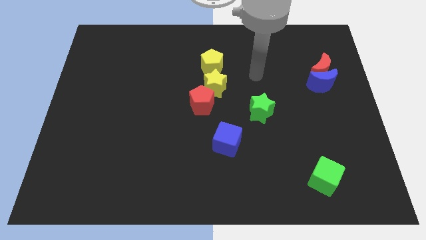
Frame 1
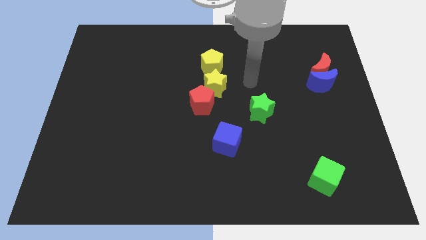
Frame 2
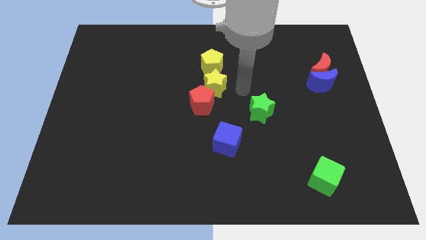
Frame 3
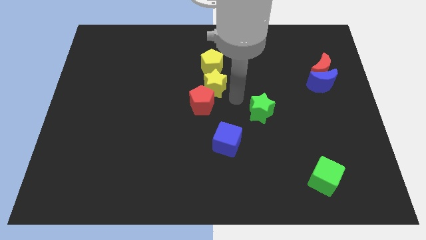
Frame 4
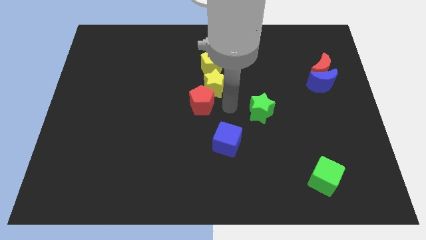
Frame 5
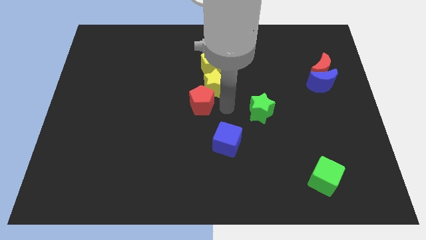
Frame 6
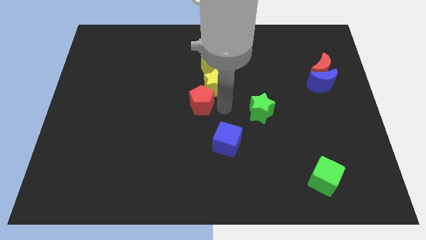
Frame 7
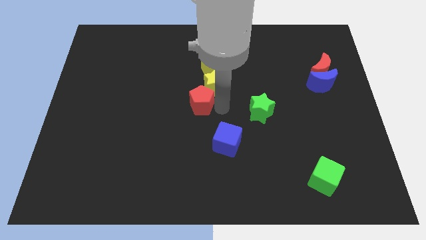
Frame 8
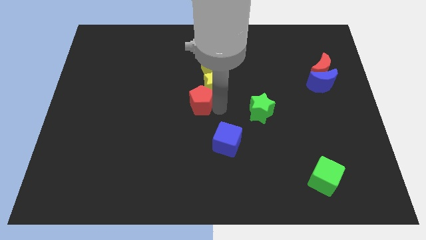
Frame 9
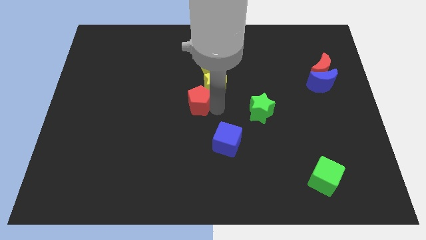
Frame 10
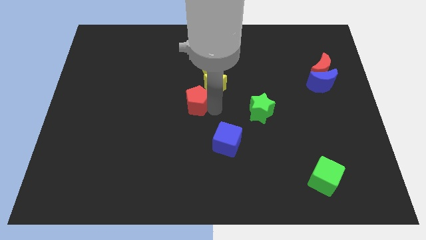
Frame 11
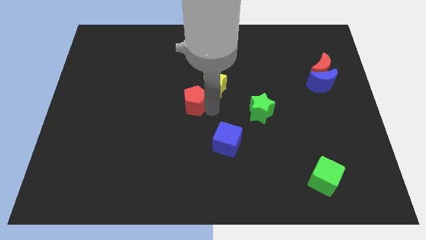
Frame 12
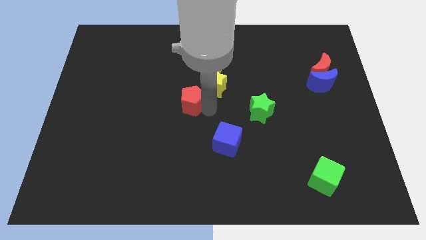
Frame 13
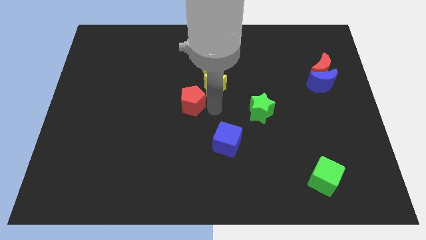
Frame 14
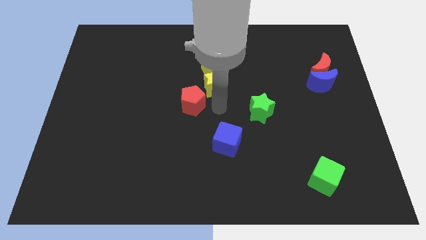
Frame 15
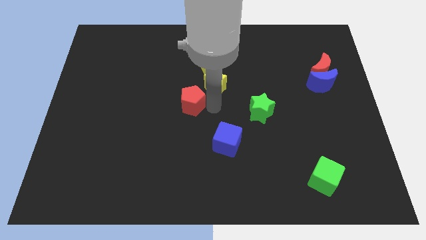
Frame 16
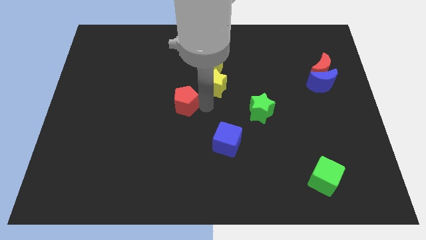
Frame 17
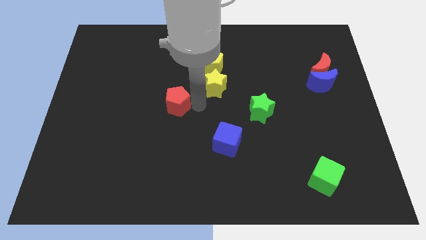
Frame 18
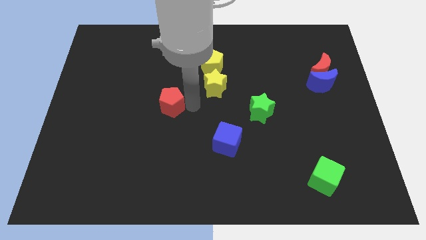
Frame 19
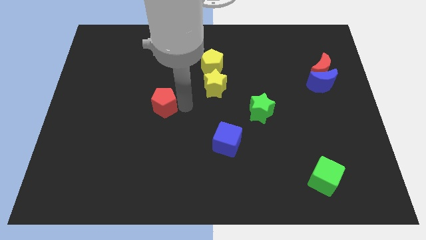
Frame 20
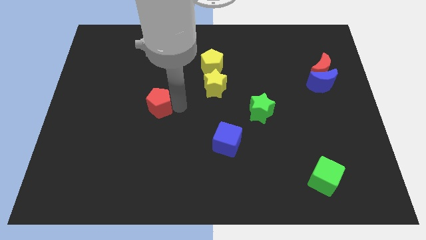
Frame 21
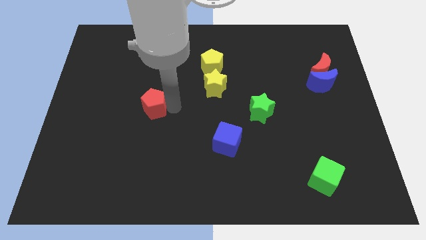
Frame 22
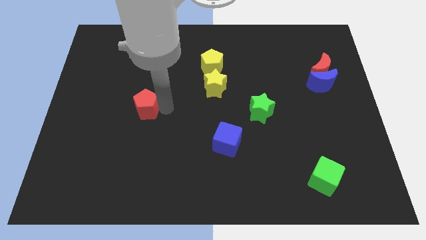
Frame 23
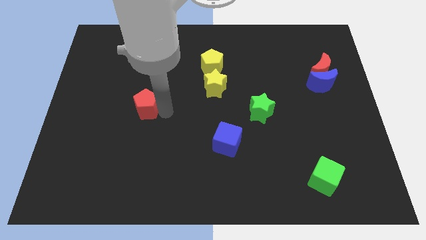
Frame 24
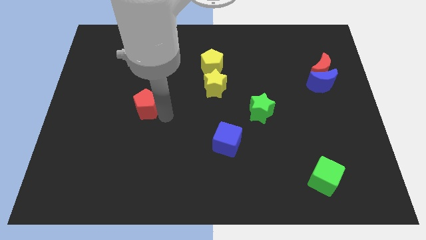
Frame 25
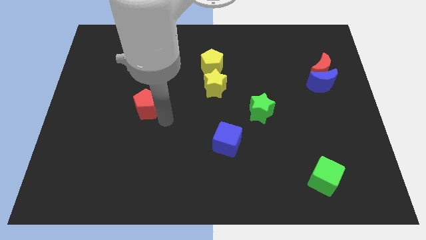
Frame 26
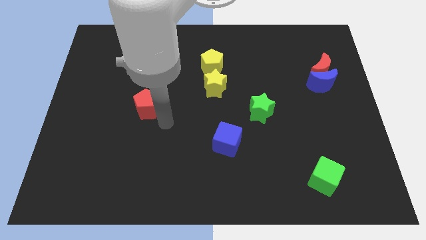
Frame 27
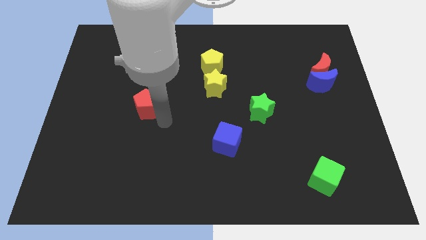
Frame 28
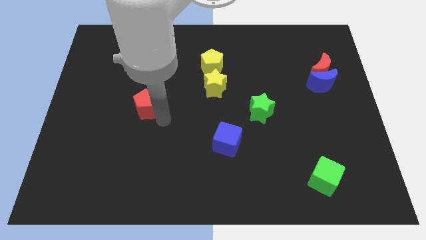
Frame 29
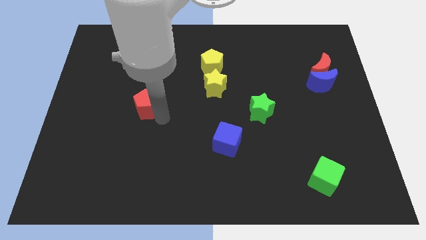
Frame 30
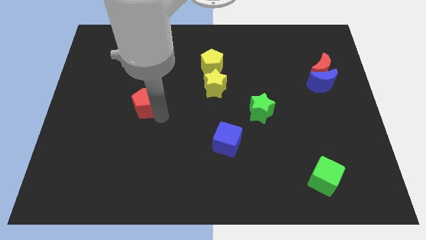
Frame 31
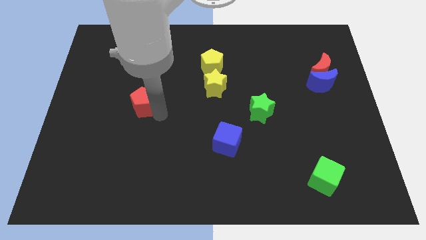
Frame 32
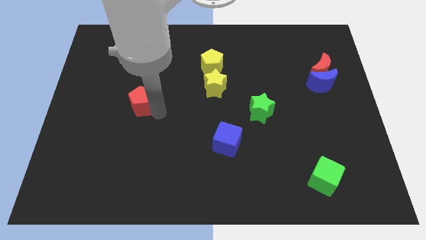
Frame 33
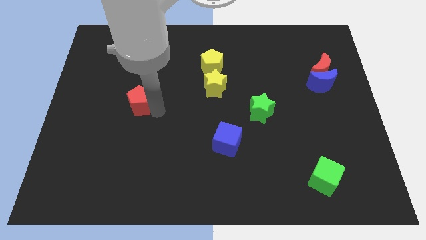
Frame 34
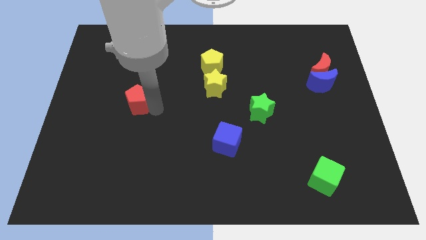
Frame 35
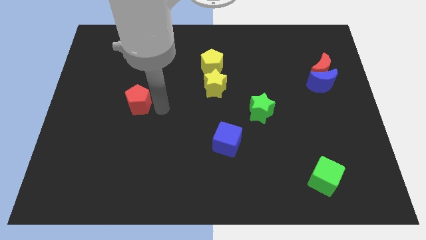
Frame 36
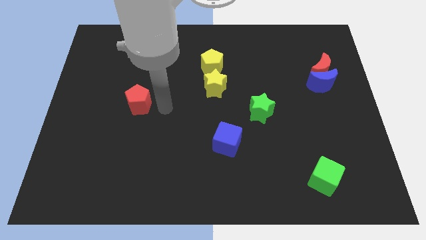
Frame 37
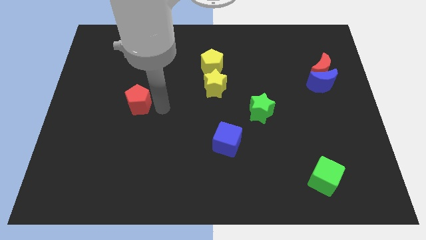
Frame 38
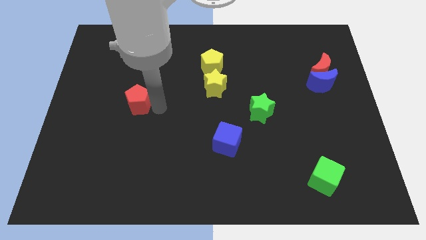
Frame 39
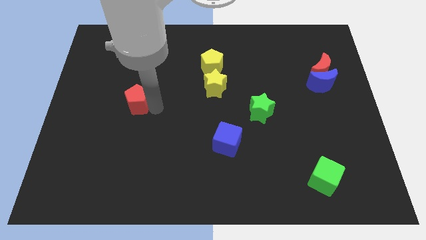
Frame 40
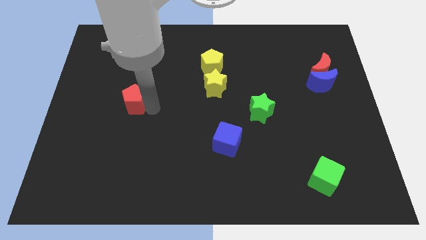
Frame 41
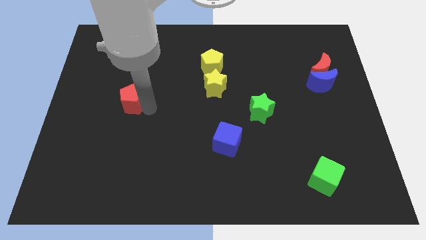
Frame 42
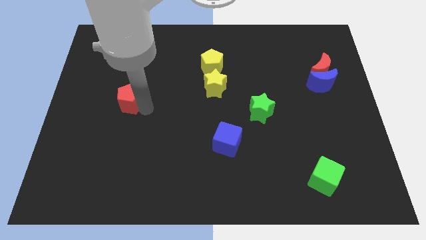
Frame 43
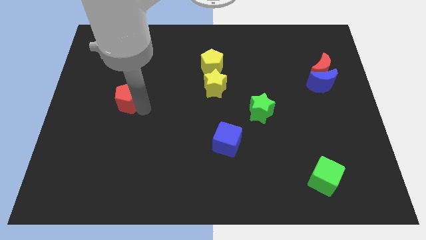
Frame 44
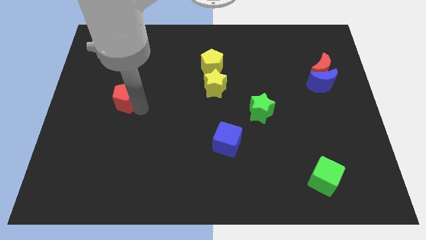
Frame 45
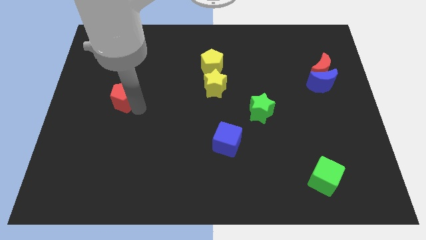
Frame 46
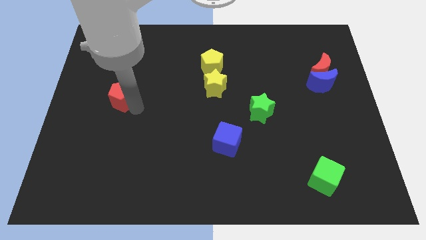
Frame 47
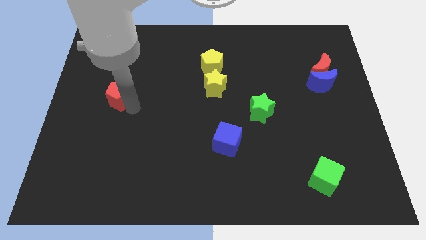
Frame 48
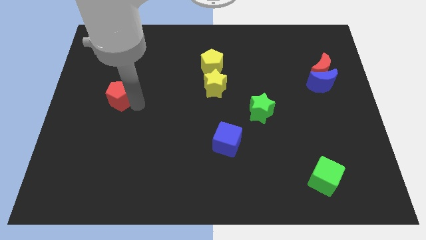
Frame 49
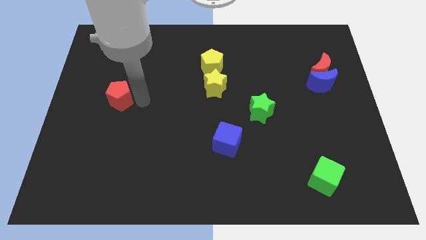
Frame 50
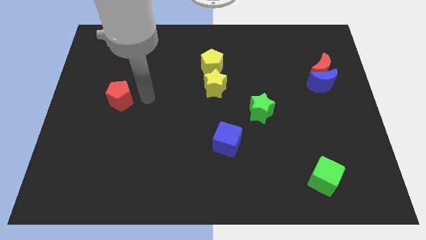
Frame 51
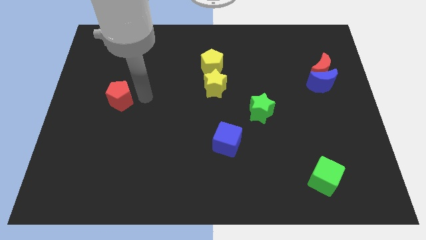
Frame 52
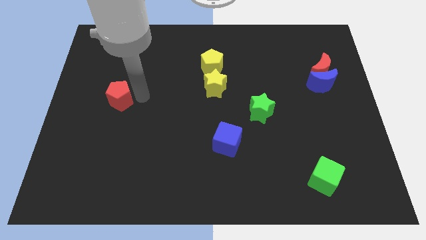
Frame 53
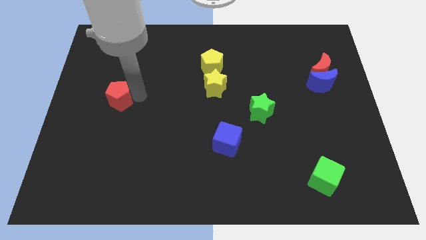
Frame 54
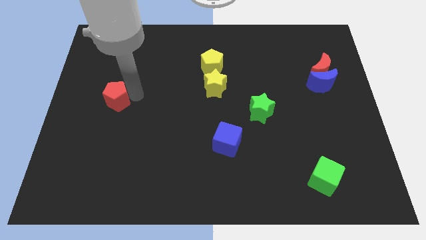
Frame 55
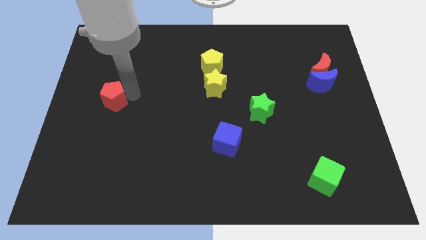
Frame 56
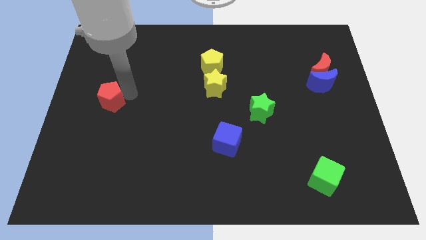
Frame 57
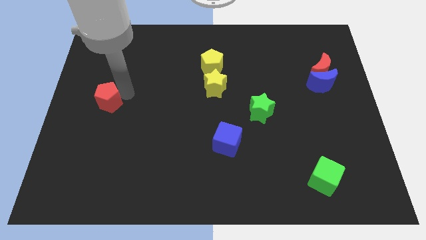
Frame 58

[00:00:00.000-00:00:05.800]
move the red pentagon to the center left

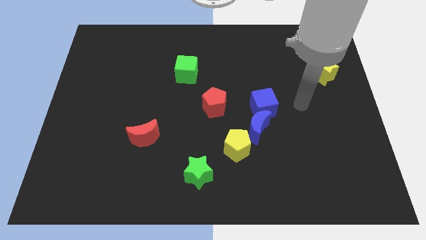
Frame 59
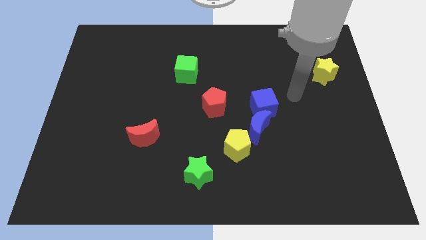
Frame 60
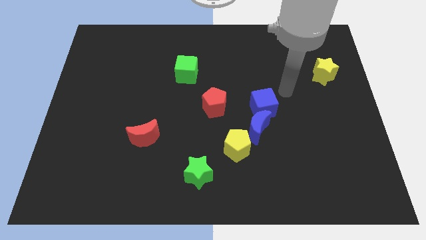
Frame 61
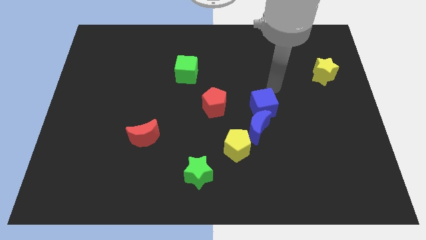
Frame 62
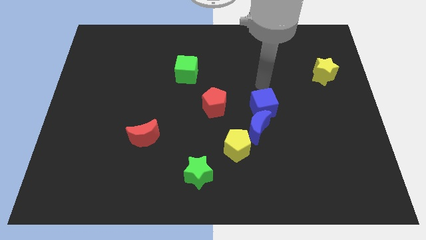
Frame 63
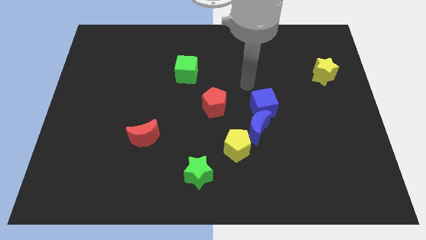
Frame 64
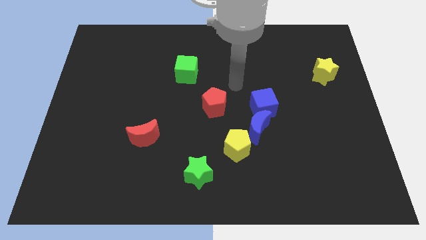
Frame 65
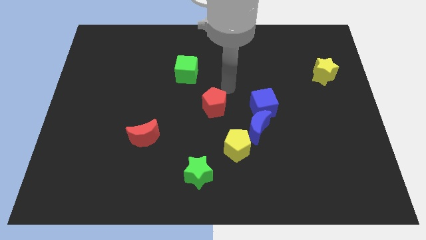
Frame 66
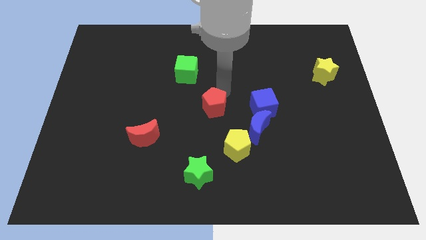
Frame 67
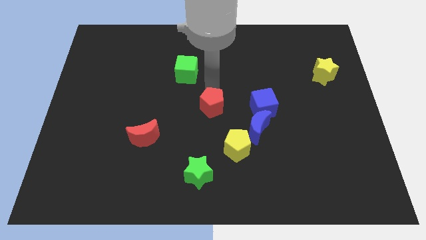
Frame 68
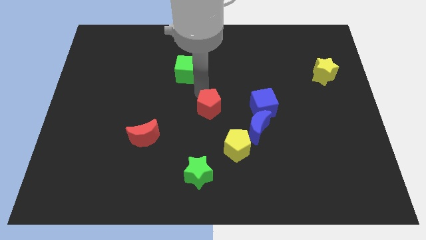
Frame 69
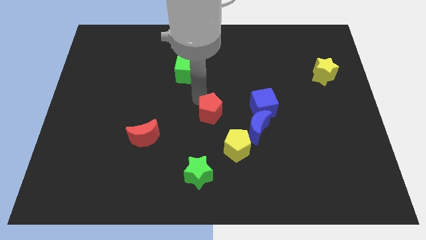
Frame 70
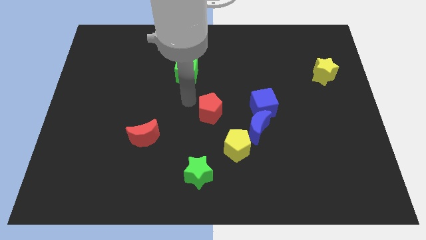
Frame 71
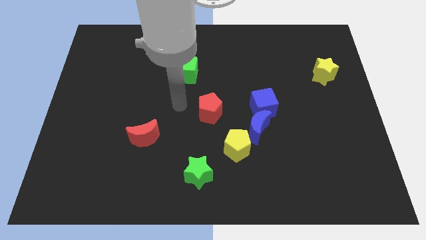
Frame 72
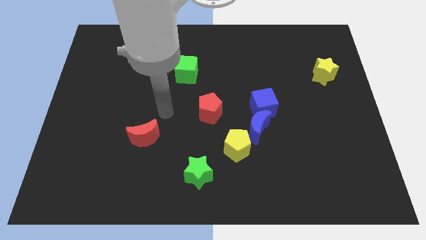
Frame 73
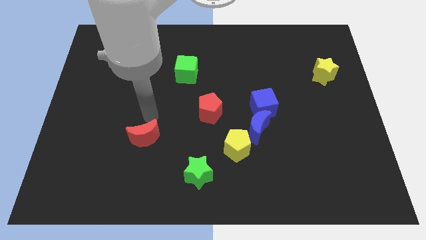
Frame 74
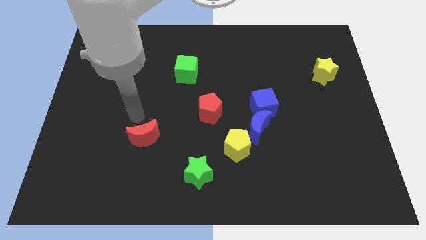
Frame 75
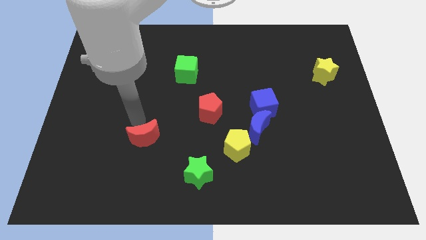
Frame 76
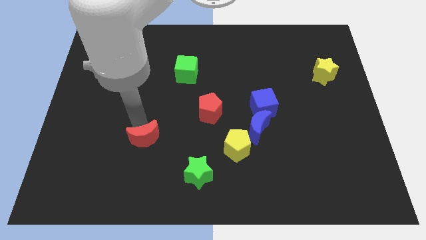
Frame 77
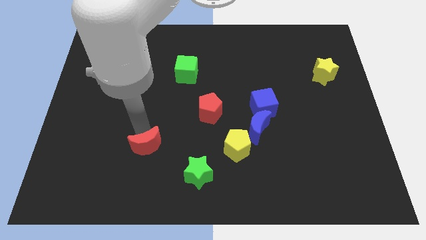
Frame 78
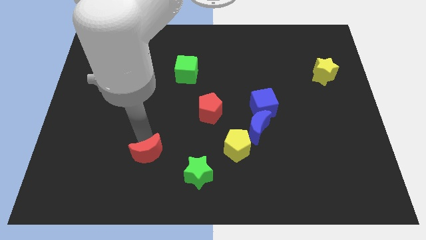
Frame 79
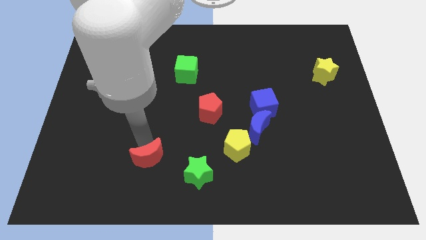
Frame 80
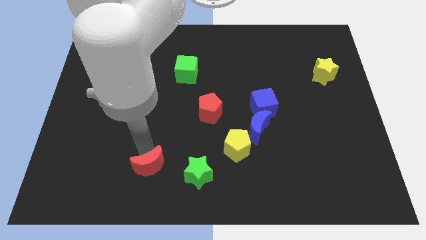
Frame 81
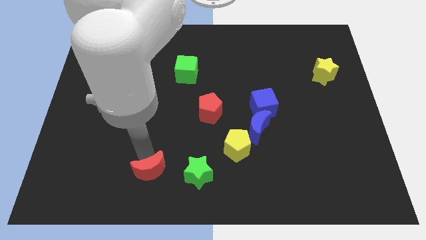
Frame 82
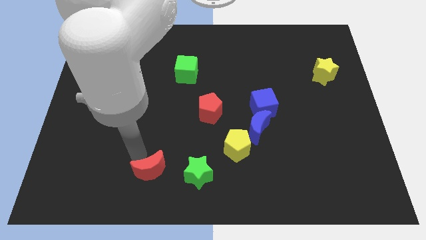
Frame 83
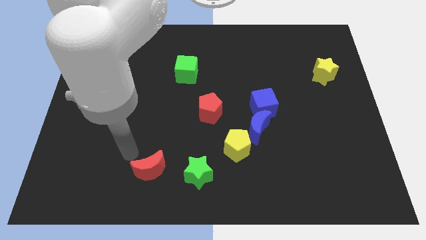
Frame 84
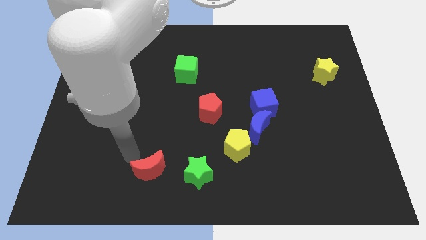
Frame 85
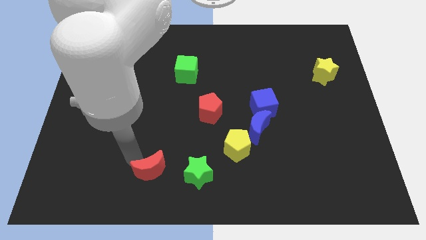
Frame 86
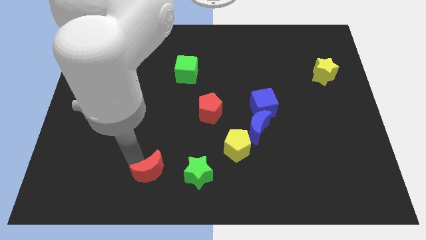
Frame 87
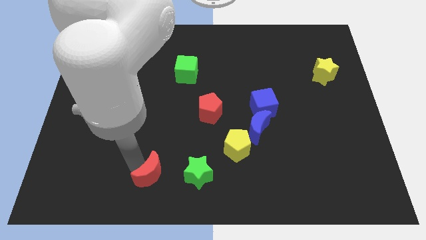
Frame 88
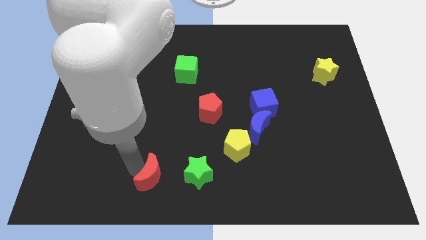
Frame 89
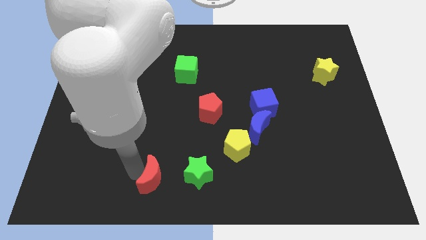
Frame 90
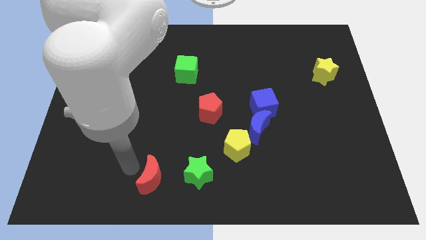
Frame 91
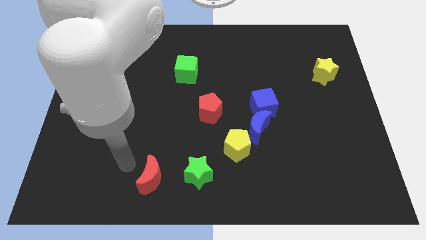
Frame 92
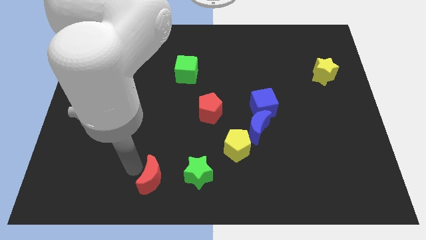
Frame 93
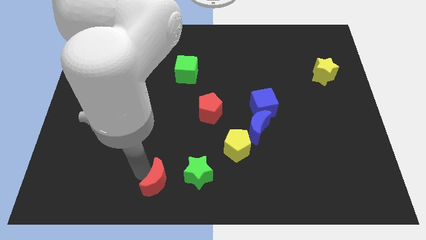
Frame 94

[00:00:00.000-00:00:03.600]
slide the red moon to the bottom side
